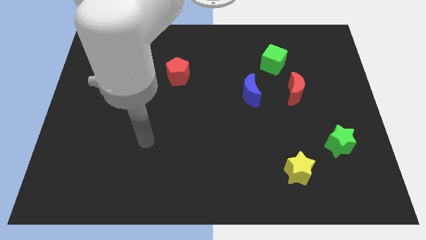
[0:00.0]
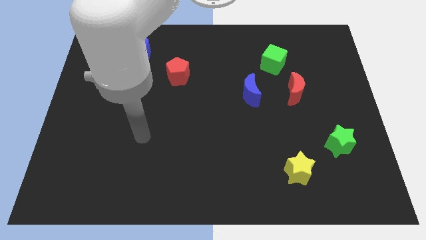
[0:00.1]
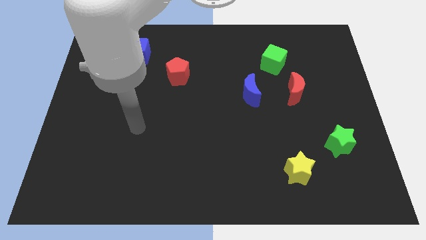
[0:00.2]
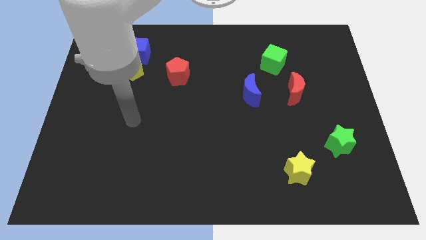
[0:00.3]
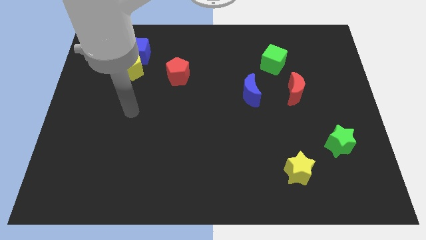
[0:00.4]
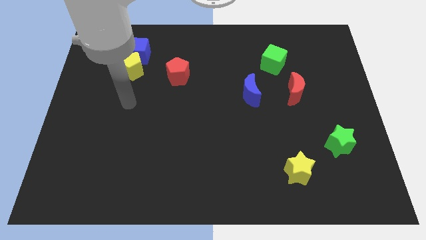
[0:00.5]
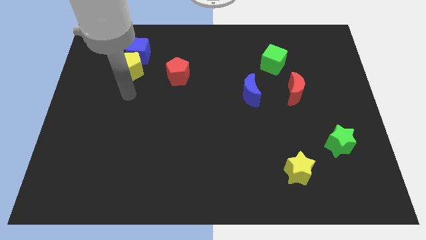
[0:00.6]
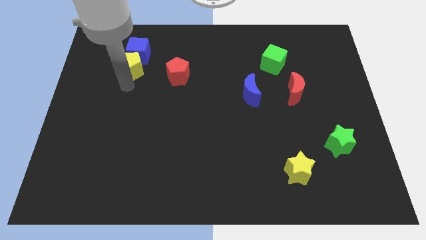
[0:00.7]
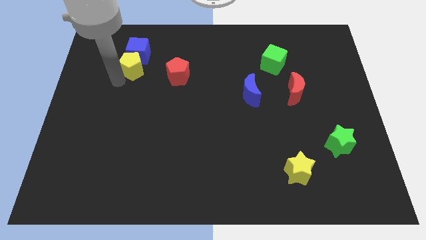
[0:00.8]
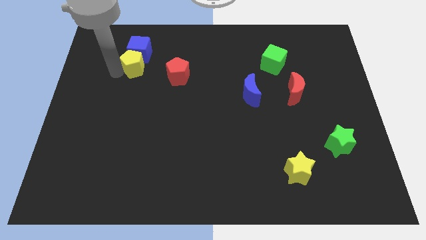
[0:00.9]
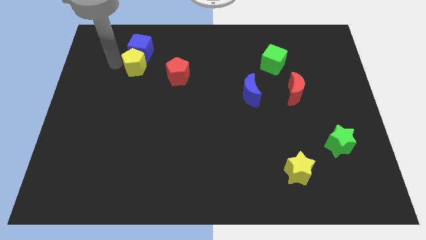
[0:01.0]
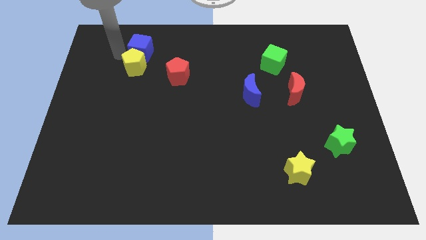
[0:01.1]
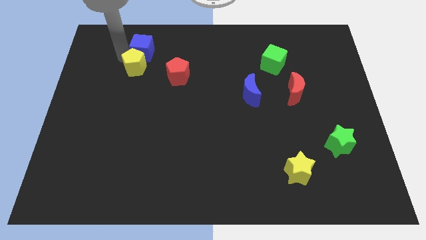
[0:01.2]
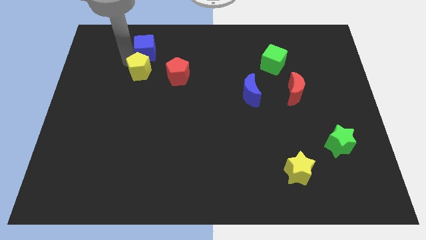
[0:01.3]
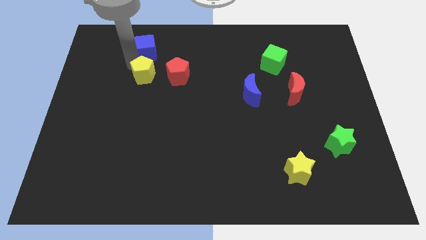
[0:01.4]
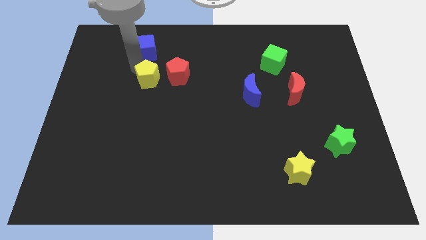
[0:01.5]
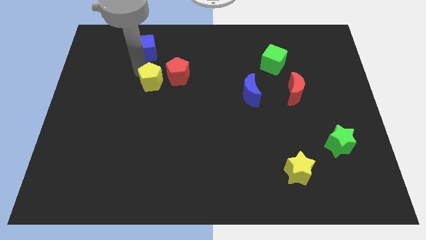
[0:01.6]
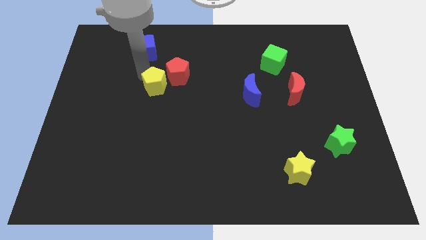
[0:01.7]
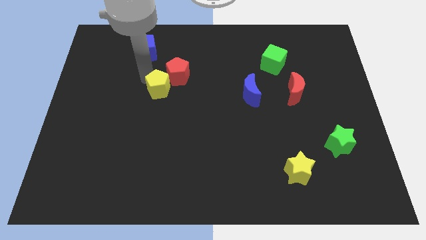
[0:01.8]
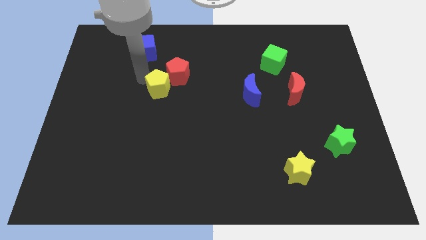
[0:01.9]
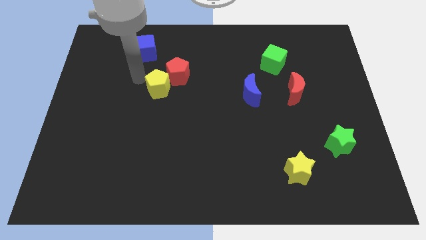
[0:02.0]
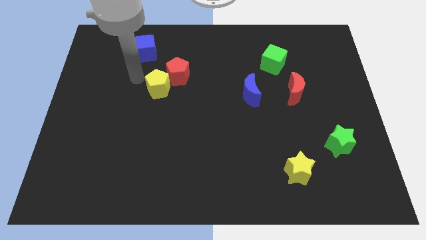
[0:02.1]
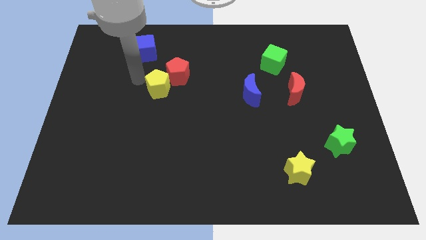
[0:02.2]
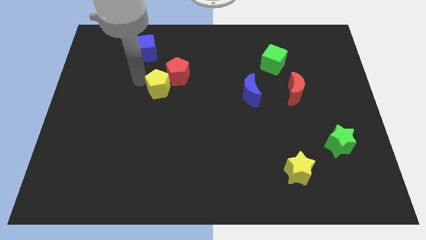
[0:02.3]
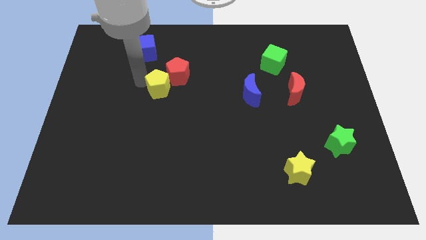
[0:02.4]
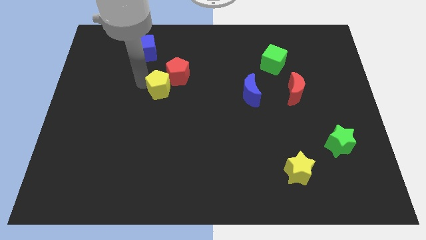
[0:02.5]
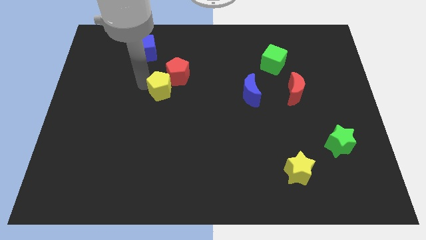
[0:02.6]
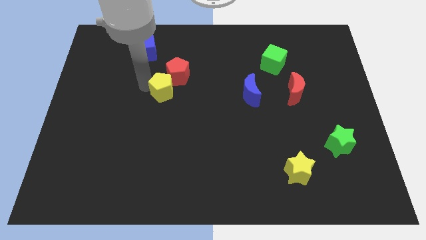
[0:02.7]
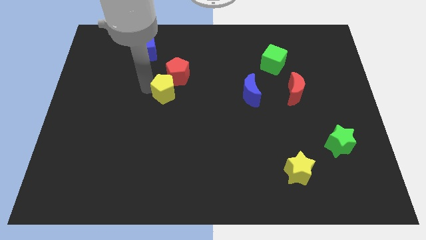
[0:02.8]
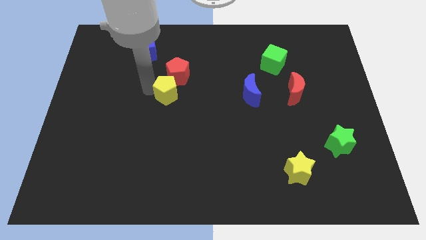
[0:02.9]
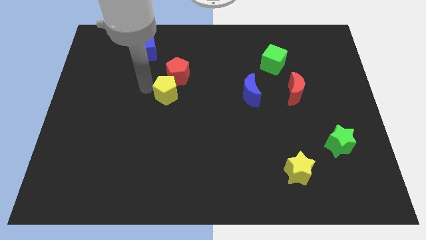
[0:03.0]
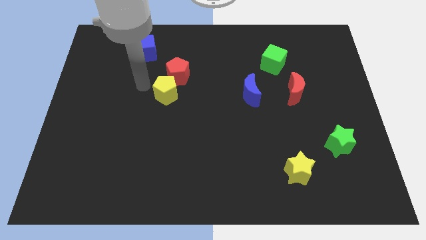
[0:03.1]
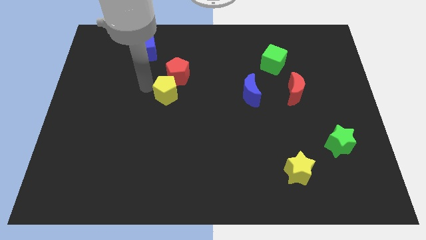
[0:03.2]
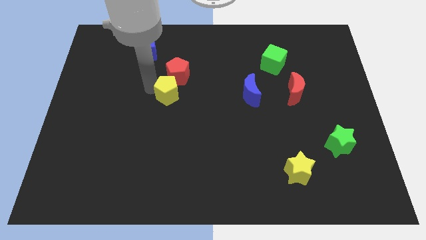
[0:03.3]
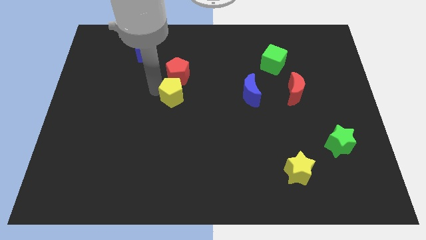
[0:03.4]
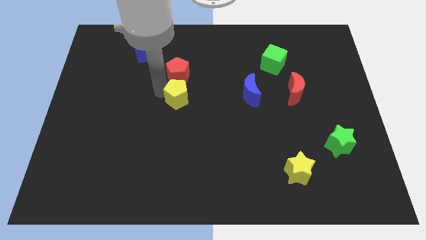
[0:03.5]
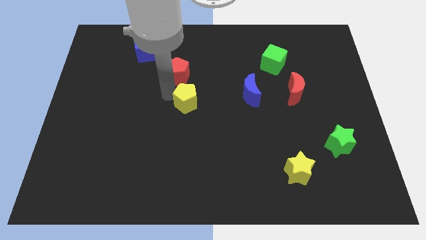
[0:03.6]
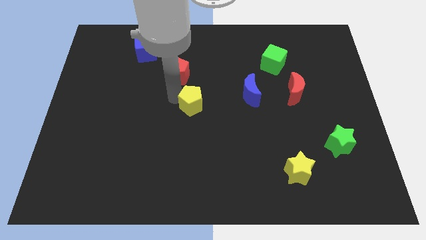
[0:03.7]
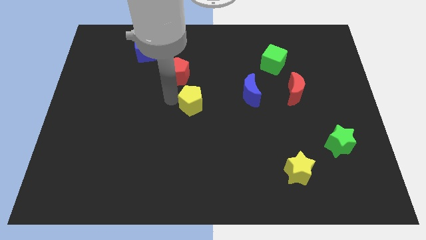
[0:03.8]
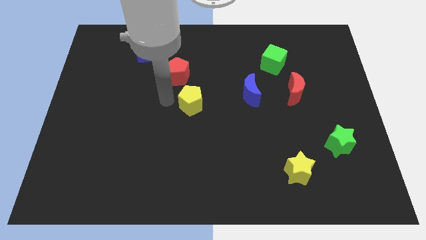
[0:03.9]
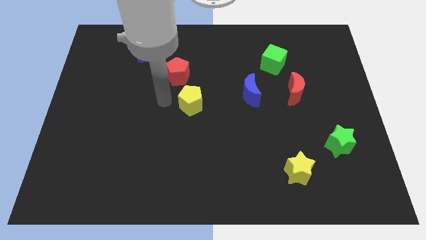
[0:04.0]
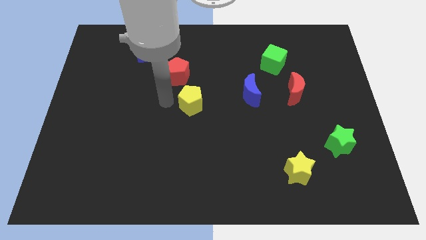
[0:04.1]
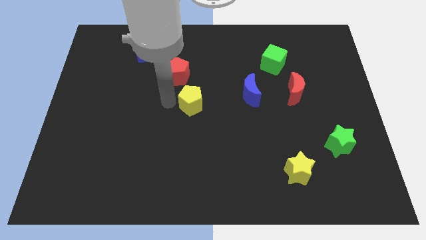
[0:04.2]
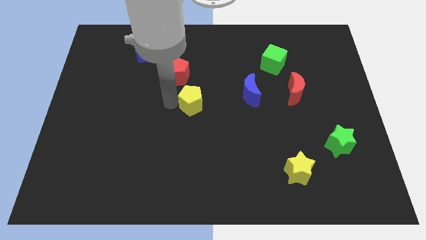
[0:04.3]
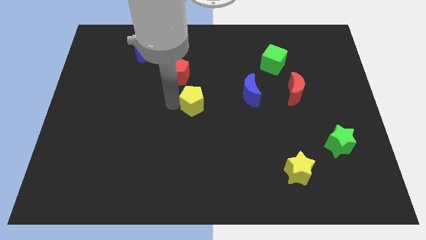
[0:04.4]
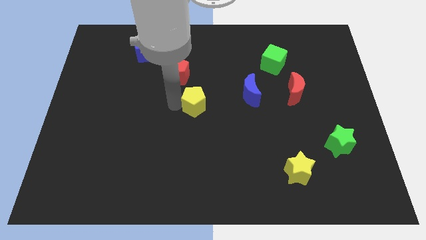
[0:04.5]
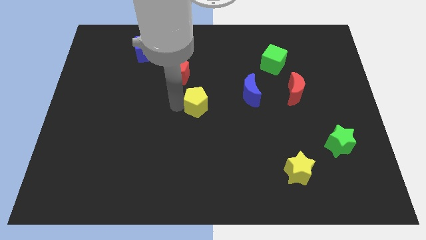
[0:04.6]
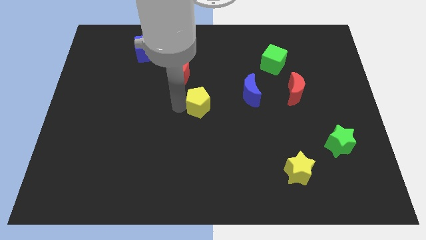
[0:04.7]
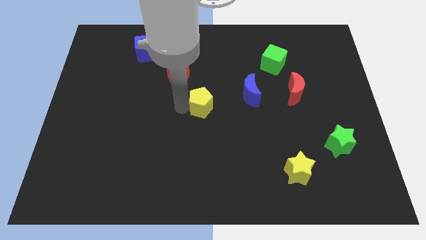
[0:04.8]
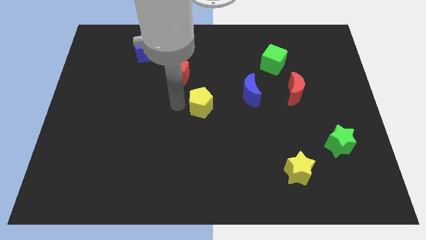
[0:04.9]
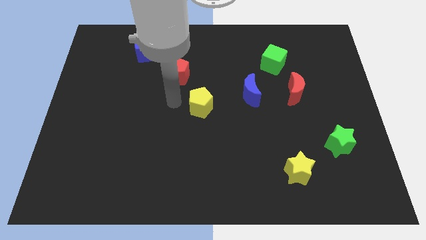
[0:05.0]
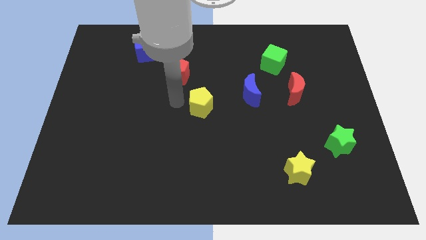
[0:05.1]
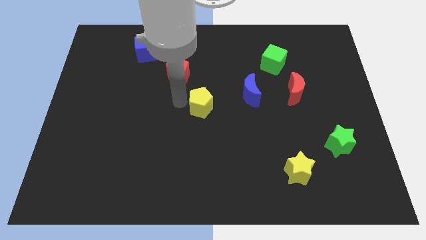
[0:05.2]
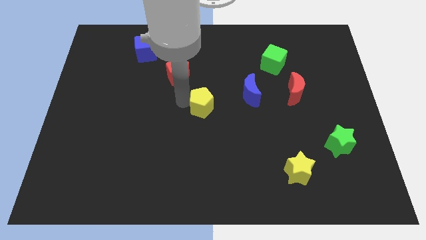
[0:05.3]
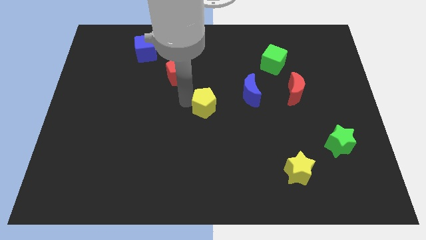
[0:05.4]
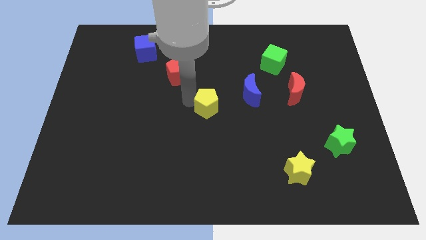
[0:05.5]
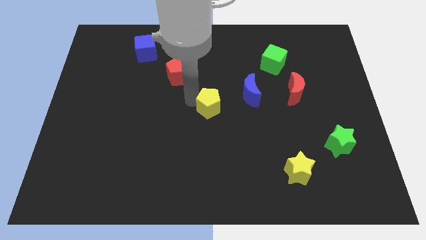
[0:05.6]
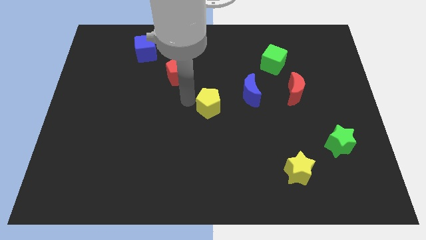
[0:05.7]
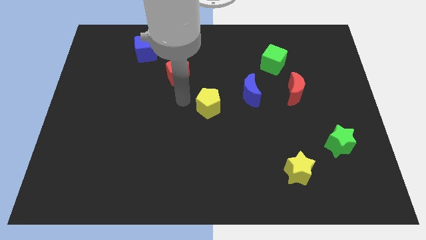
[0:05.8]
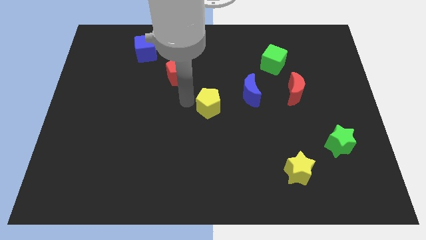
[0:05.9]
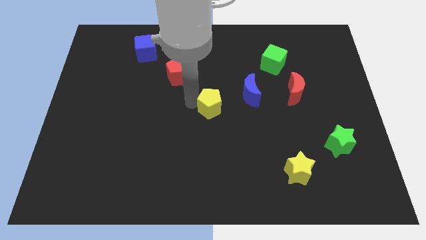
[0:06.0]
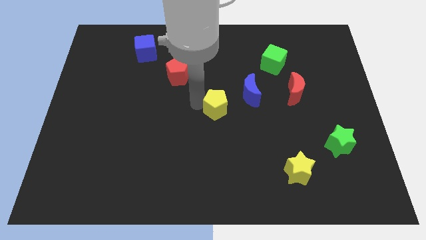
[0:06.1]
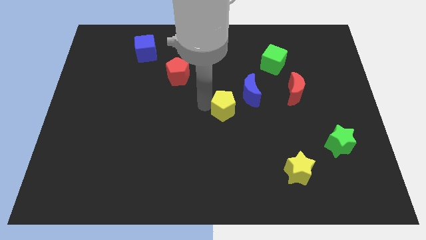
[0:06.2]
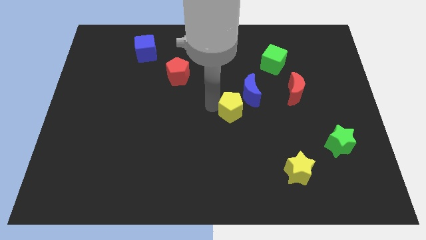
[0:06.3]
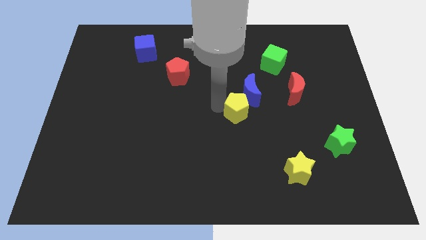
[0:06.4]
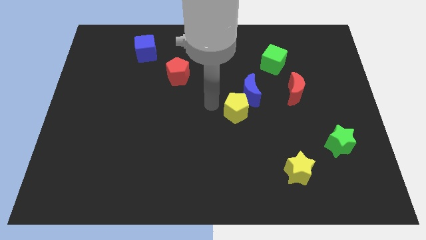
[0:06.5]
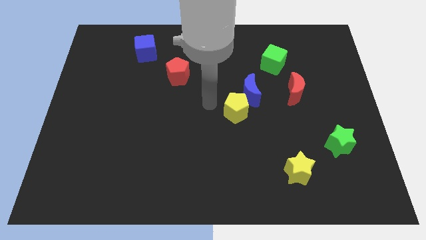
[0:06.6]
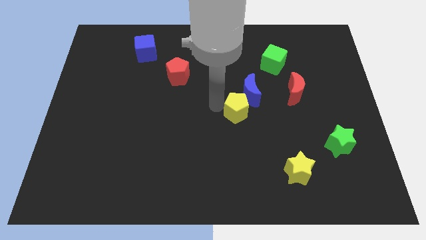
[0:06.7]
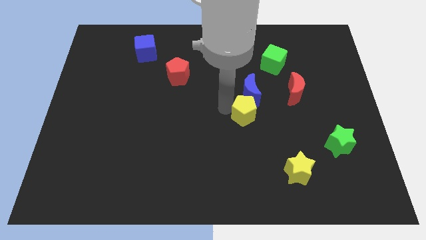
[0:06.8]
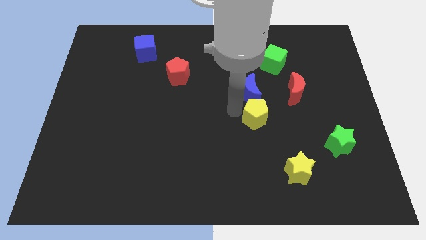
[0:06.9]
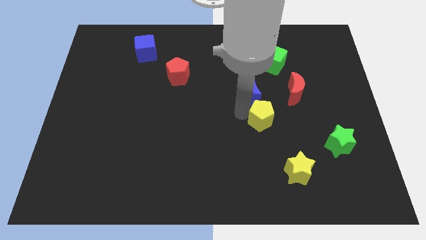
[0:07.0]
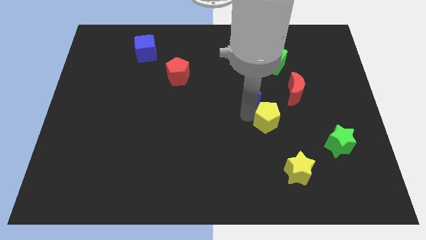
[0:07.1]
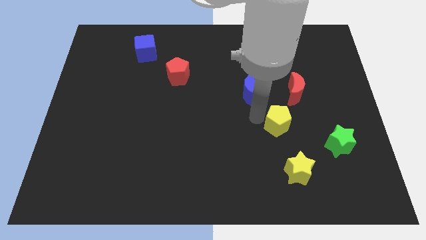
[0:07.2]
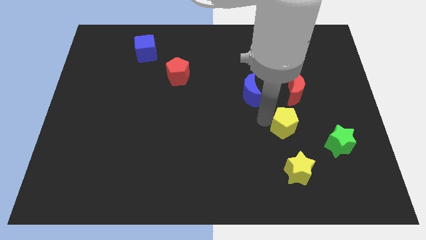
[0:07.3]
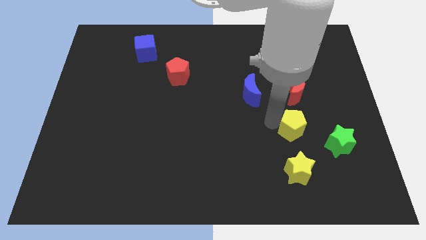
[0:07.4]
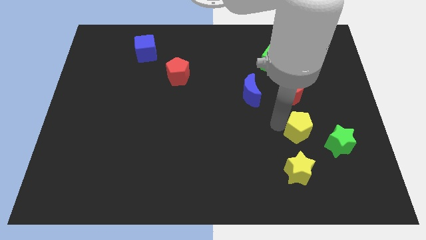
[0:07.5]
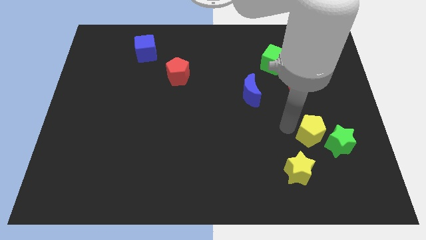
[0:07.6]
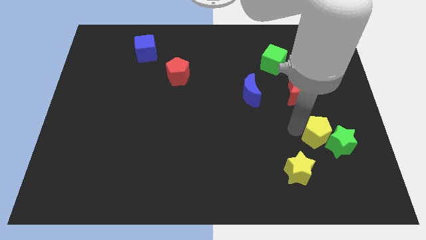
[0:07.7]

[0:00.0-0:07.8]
slide the yellow pentagon next to the green star
